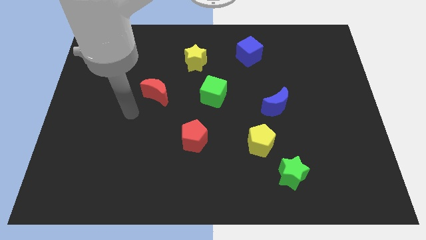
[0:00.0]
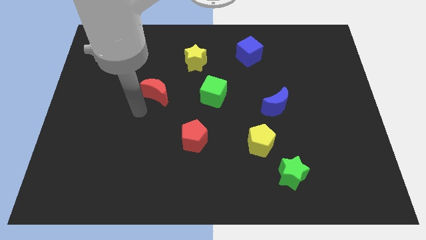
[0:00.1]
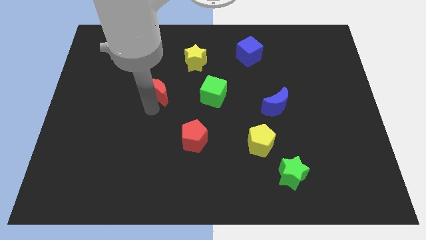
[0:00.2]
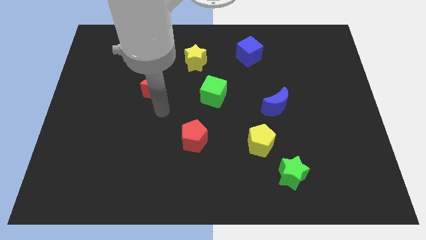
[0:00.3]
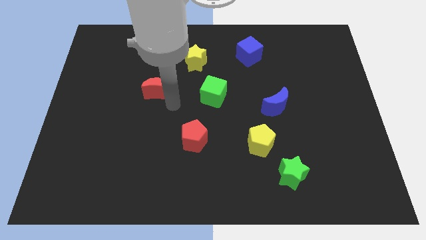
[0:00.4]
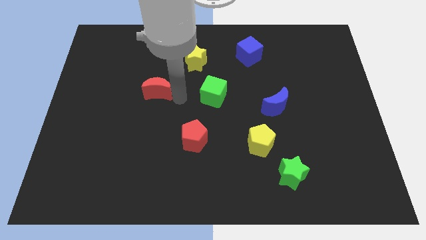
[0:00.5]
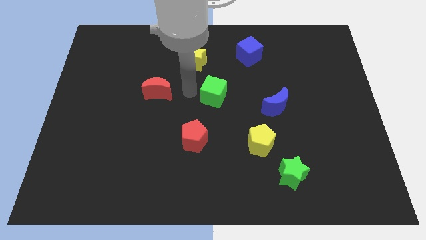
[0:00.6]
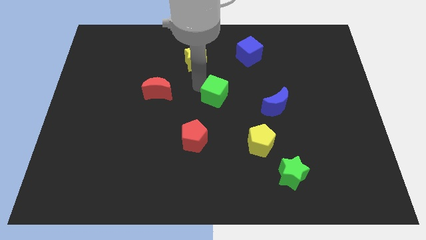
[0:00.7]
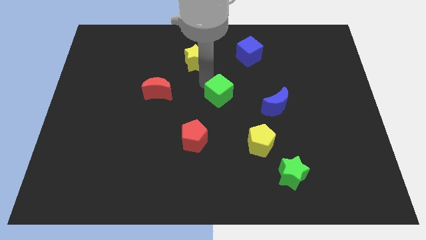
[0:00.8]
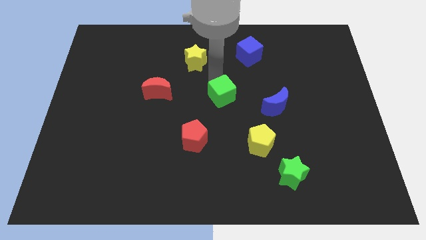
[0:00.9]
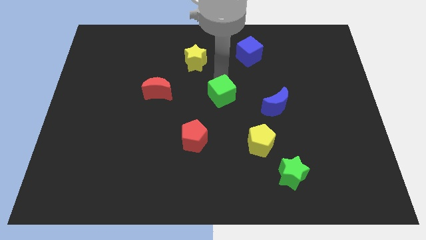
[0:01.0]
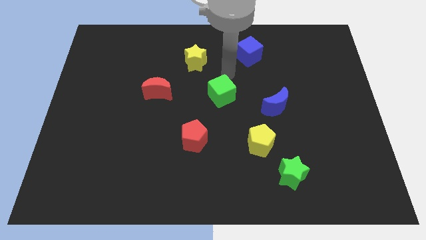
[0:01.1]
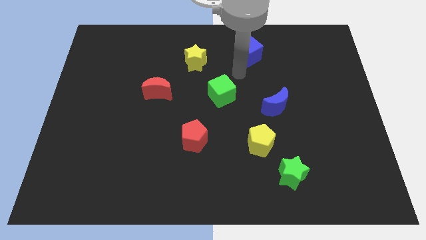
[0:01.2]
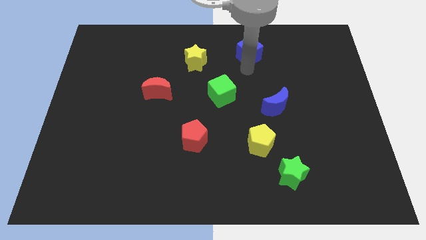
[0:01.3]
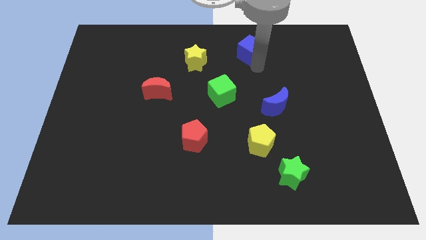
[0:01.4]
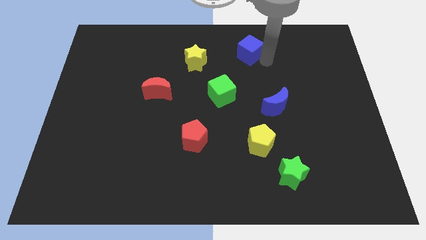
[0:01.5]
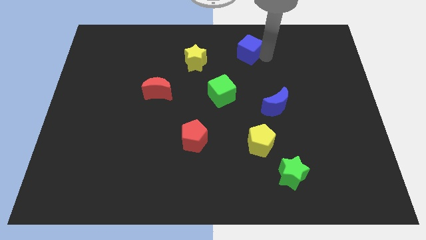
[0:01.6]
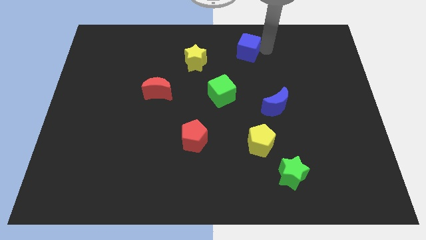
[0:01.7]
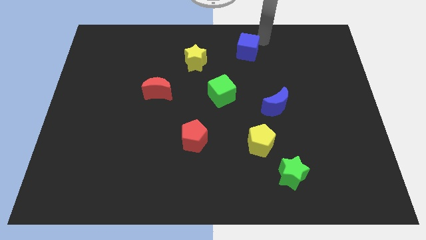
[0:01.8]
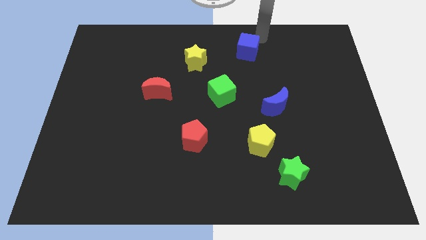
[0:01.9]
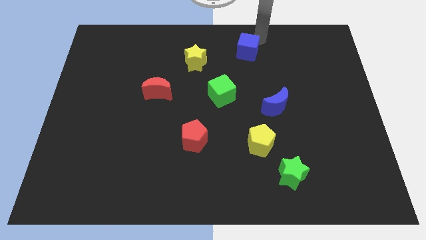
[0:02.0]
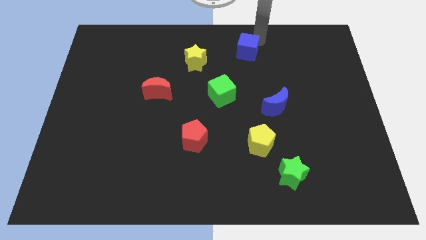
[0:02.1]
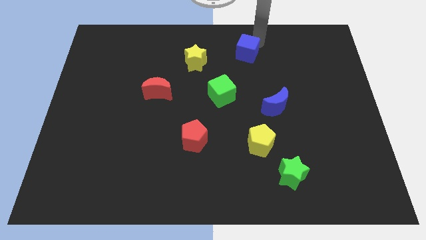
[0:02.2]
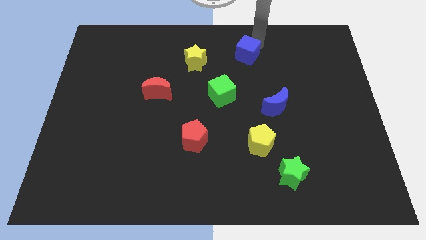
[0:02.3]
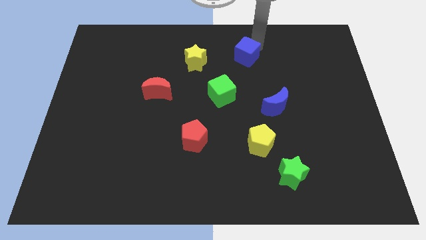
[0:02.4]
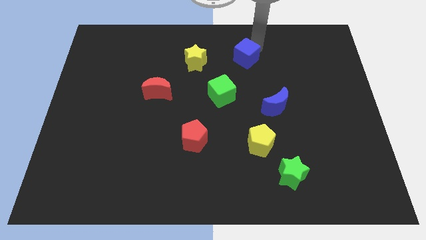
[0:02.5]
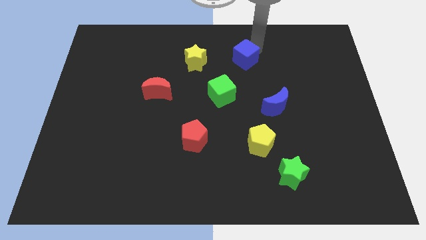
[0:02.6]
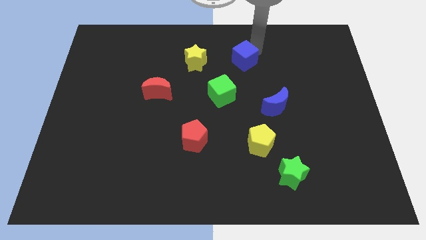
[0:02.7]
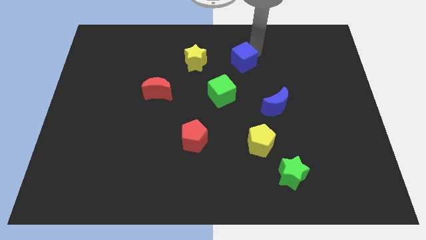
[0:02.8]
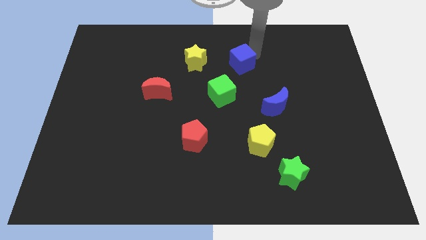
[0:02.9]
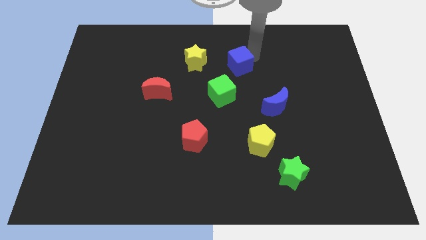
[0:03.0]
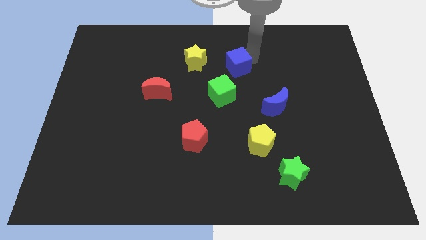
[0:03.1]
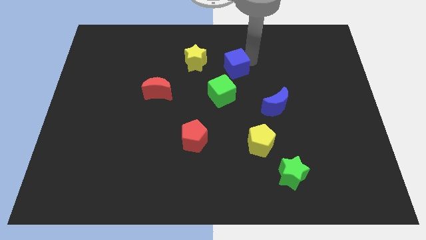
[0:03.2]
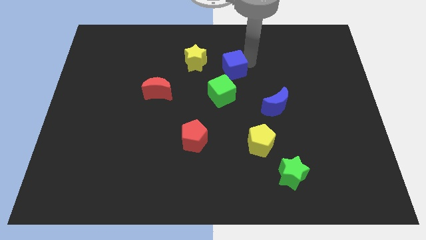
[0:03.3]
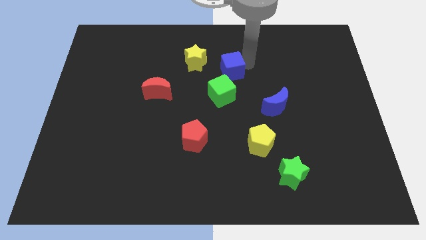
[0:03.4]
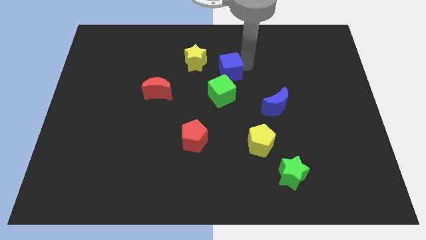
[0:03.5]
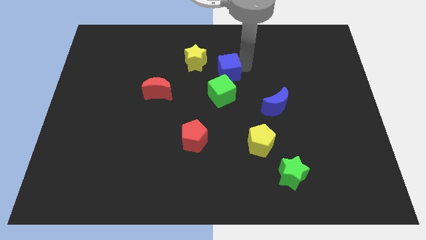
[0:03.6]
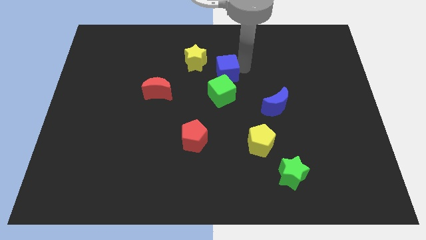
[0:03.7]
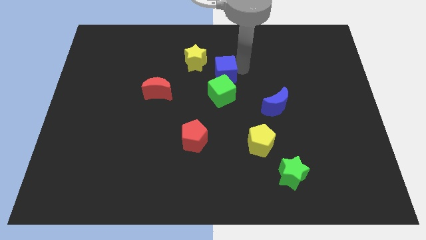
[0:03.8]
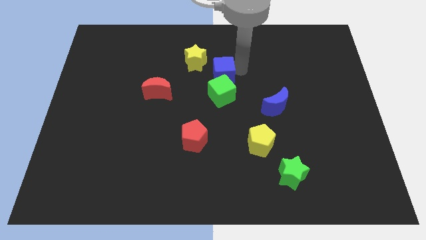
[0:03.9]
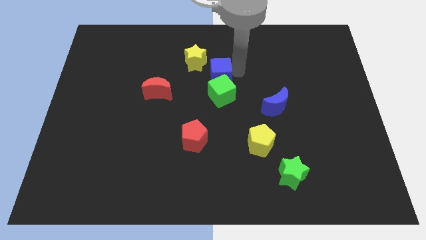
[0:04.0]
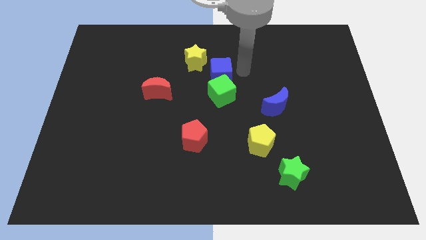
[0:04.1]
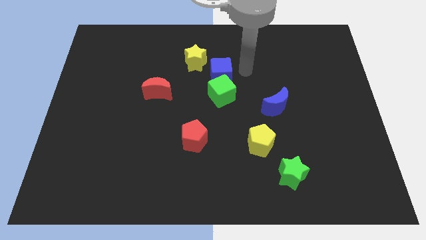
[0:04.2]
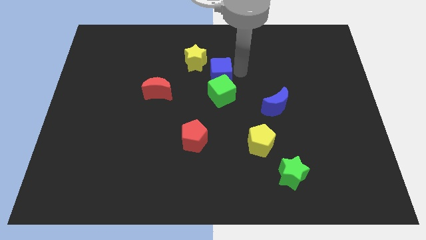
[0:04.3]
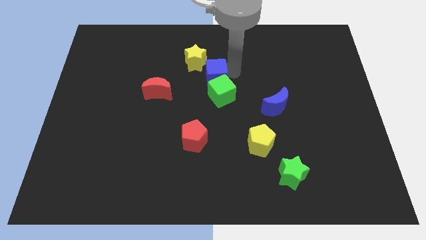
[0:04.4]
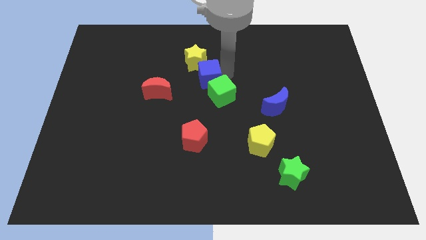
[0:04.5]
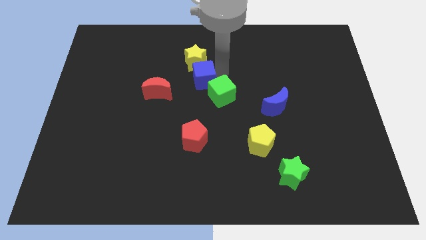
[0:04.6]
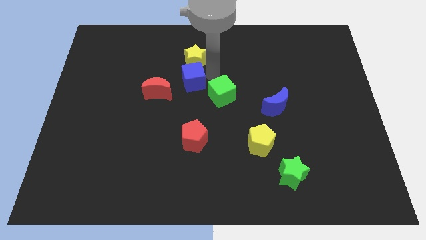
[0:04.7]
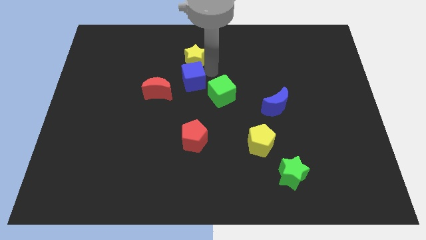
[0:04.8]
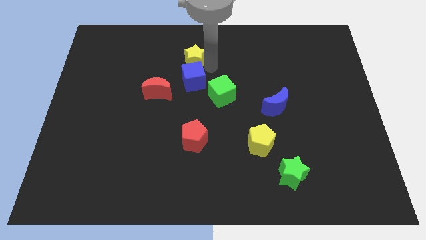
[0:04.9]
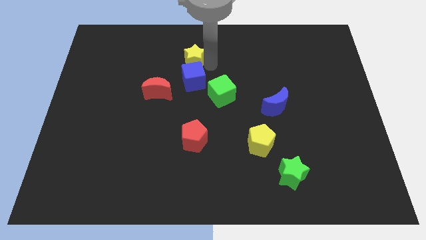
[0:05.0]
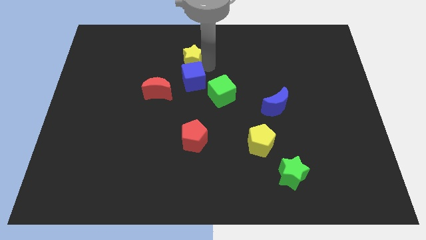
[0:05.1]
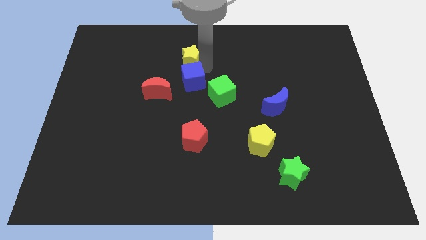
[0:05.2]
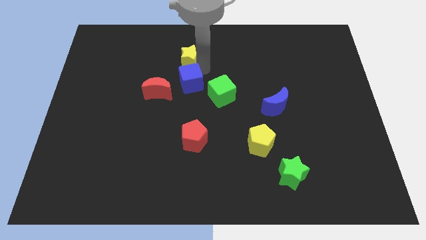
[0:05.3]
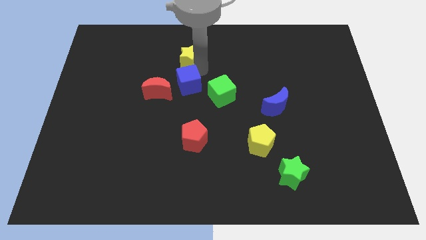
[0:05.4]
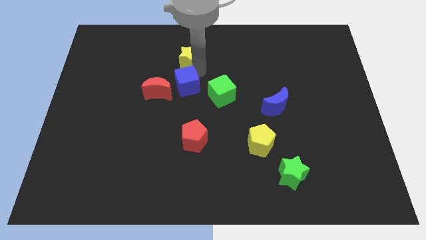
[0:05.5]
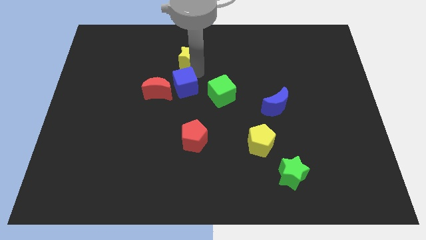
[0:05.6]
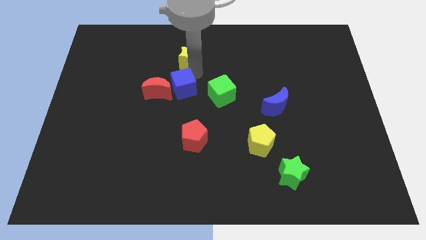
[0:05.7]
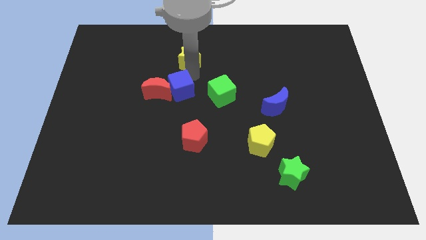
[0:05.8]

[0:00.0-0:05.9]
move the blue cube diagonally down and to the left

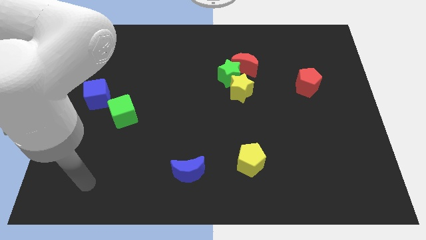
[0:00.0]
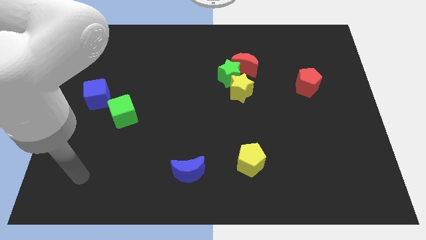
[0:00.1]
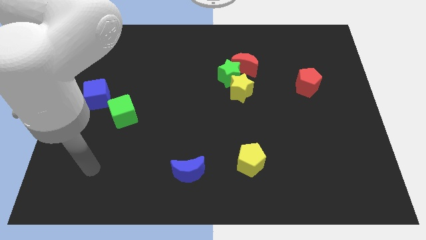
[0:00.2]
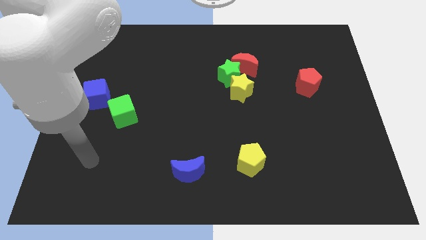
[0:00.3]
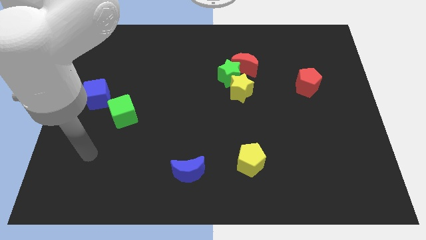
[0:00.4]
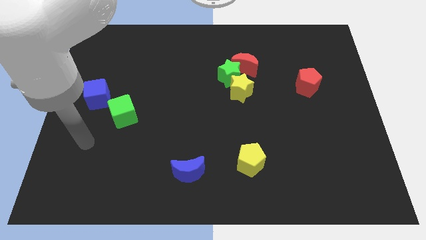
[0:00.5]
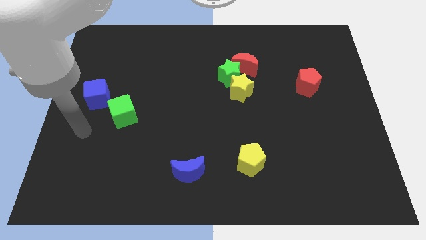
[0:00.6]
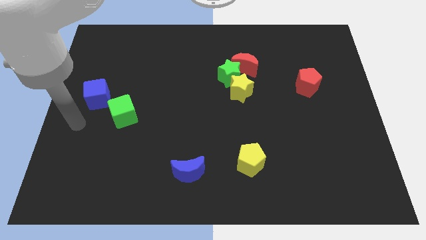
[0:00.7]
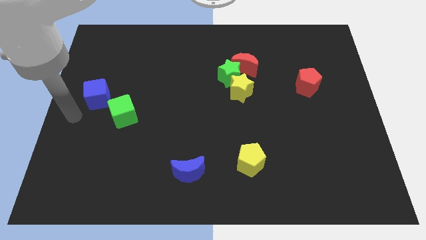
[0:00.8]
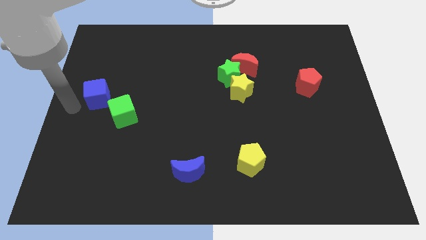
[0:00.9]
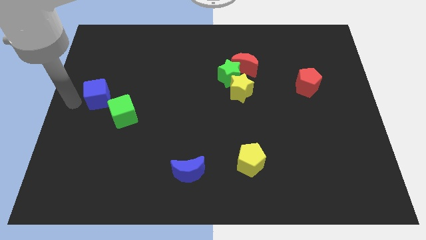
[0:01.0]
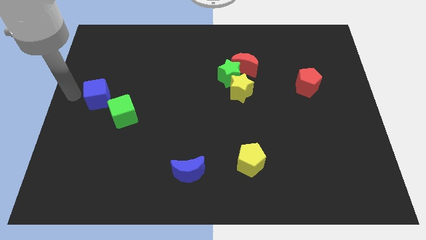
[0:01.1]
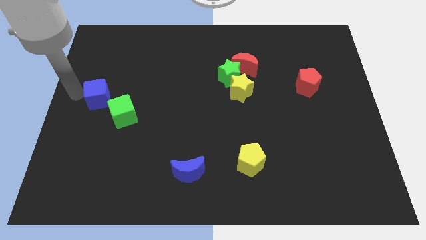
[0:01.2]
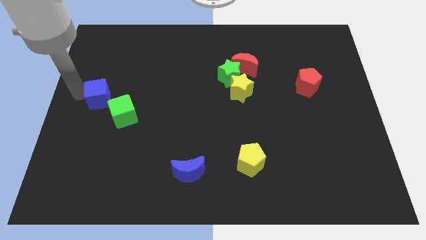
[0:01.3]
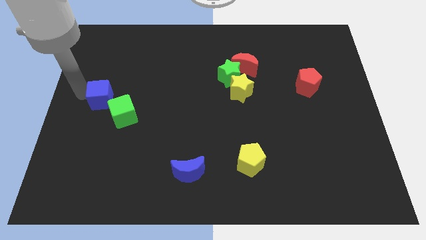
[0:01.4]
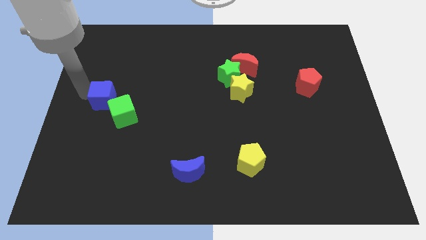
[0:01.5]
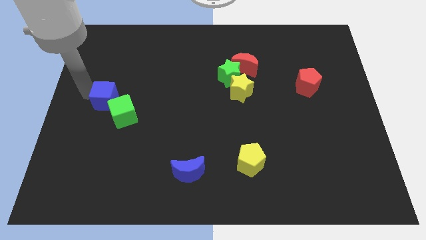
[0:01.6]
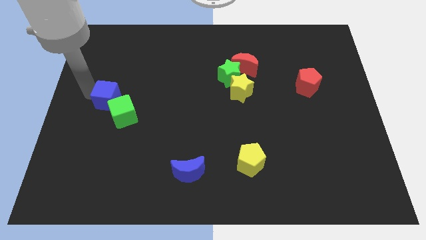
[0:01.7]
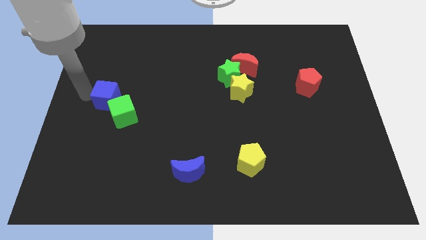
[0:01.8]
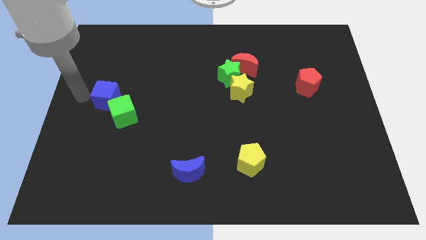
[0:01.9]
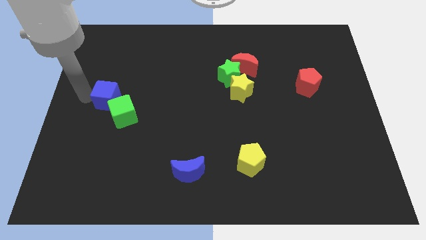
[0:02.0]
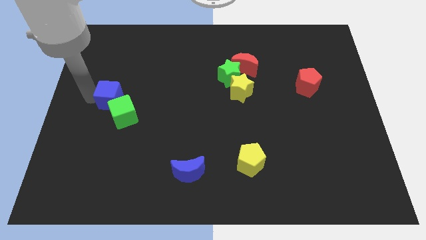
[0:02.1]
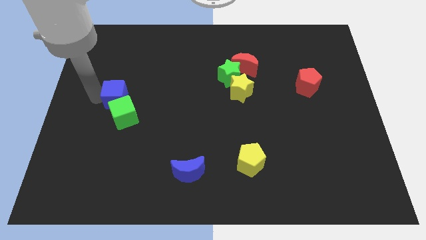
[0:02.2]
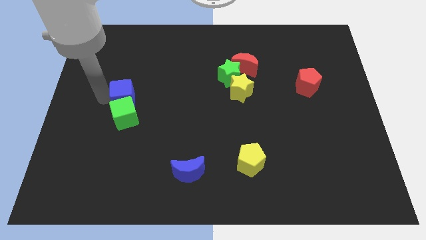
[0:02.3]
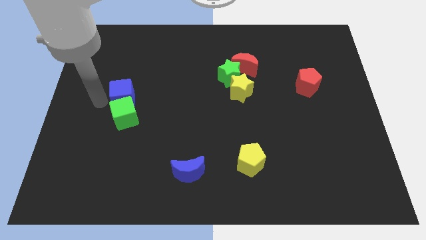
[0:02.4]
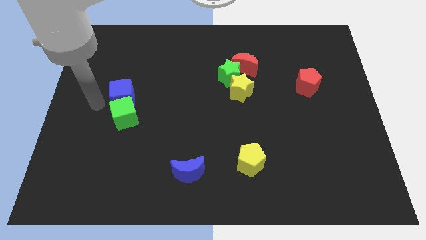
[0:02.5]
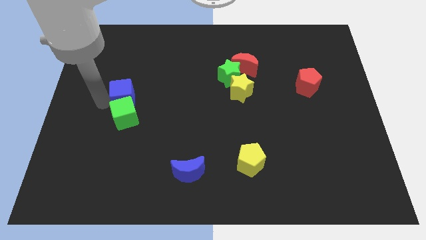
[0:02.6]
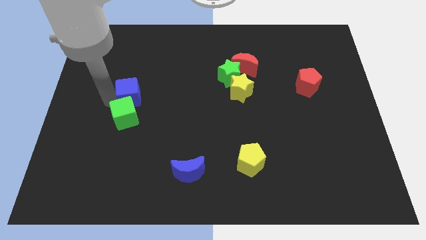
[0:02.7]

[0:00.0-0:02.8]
move the blue cube slightly to the right
